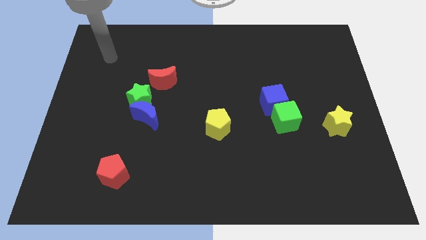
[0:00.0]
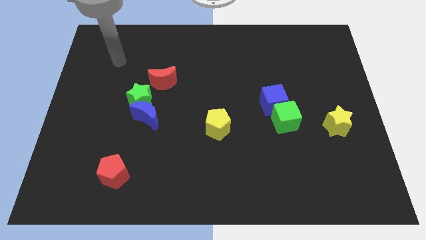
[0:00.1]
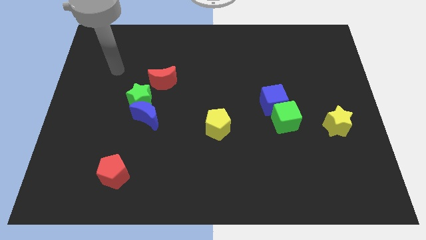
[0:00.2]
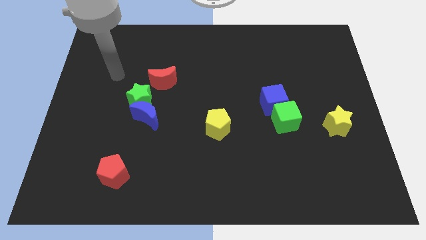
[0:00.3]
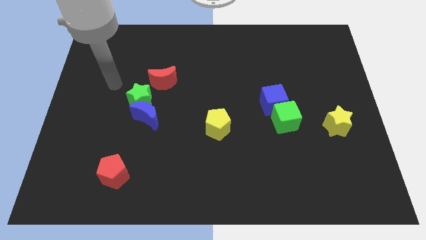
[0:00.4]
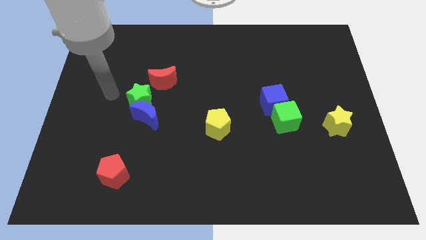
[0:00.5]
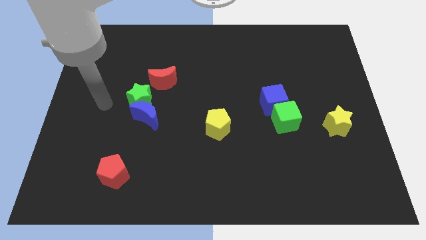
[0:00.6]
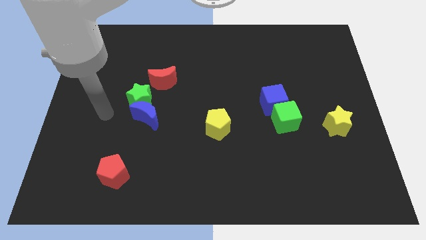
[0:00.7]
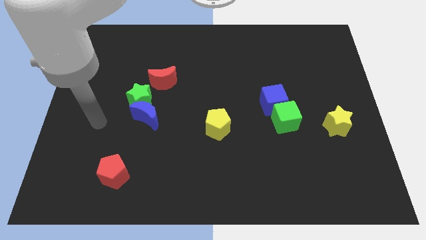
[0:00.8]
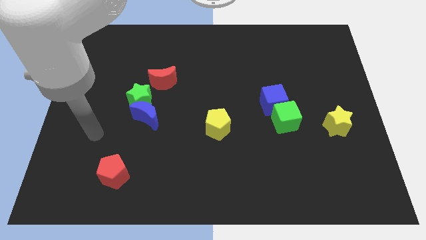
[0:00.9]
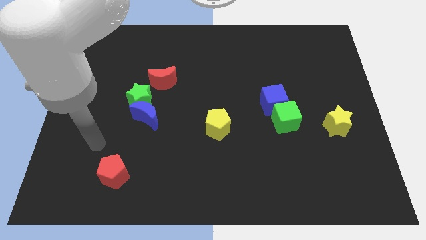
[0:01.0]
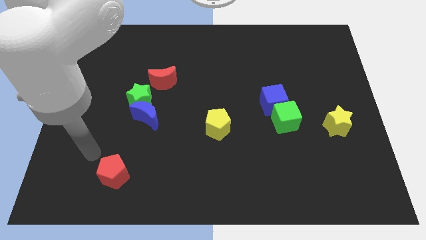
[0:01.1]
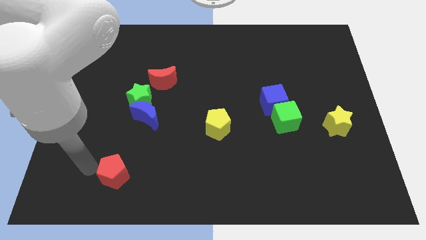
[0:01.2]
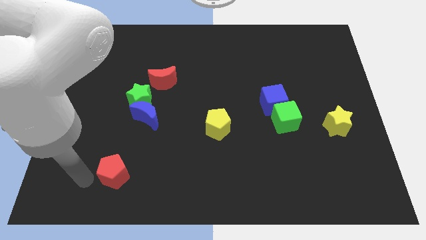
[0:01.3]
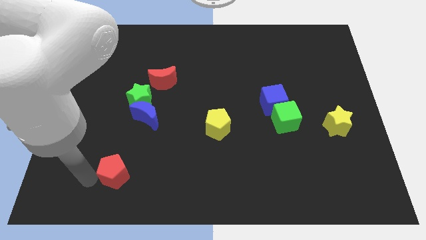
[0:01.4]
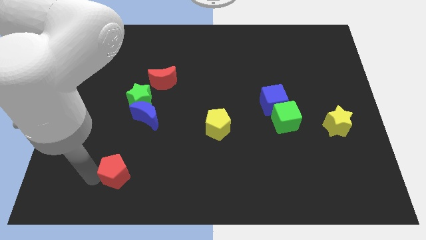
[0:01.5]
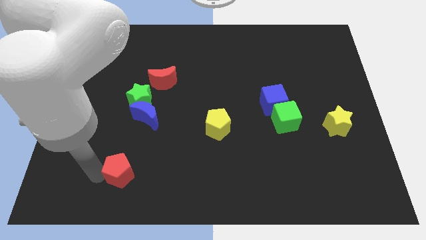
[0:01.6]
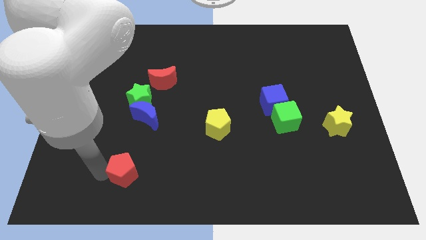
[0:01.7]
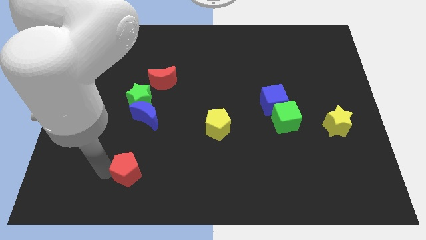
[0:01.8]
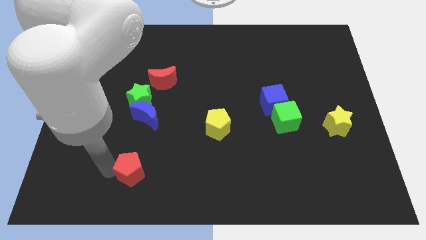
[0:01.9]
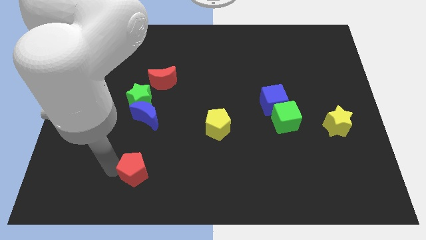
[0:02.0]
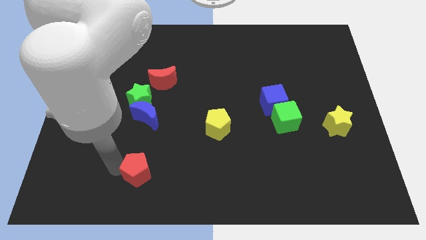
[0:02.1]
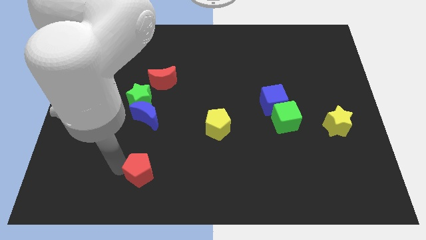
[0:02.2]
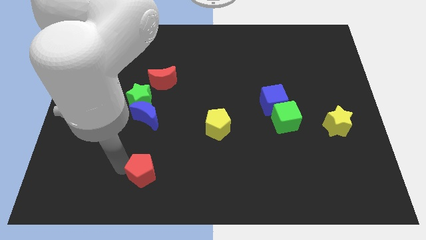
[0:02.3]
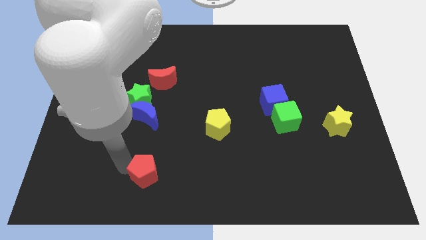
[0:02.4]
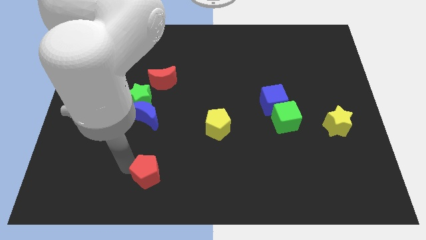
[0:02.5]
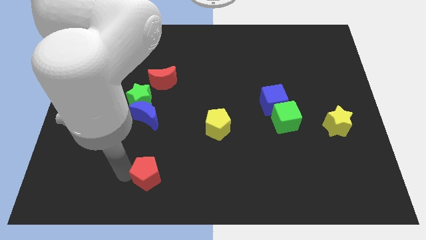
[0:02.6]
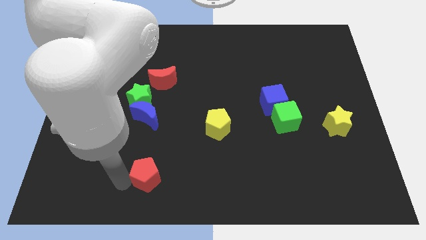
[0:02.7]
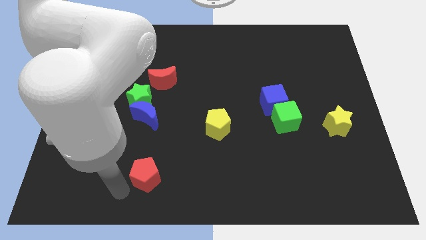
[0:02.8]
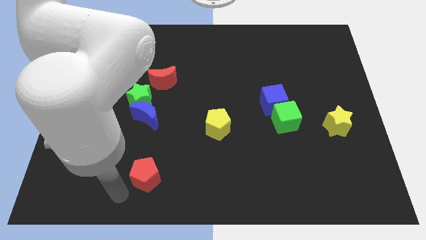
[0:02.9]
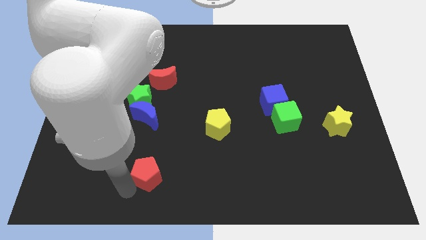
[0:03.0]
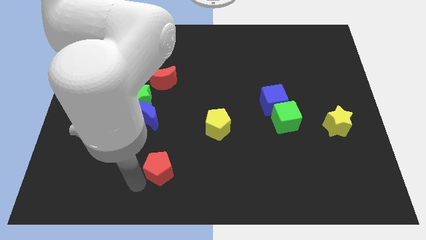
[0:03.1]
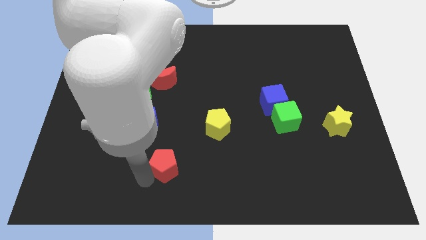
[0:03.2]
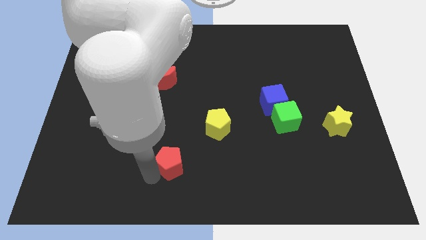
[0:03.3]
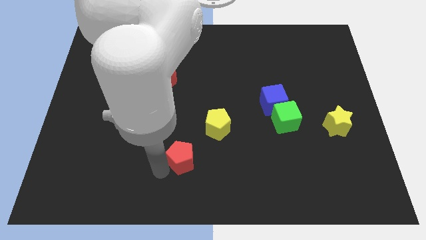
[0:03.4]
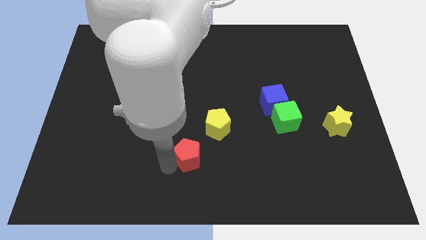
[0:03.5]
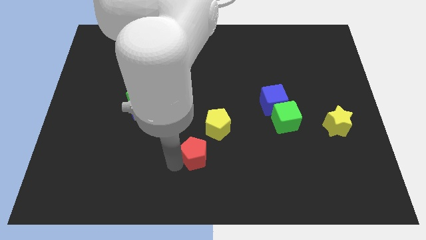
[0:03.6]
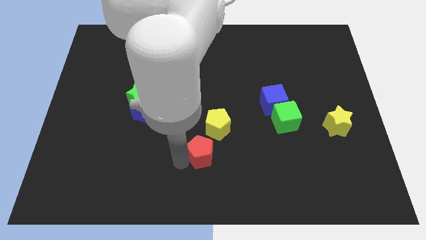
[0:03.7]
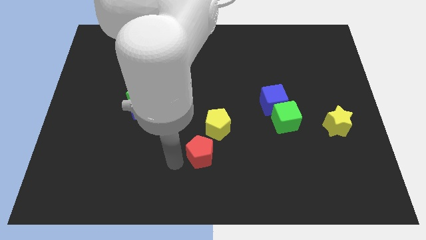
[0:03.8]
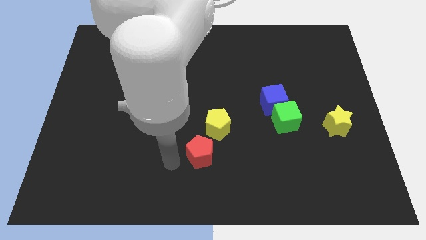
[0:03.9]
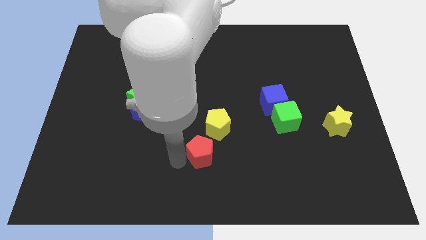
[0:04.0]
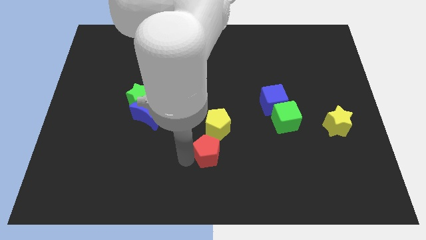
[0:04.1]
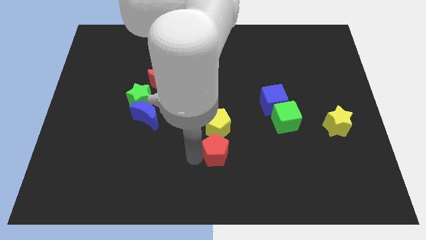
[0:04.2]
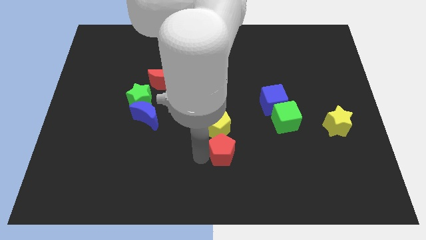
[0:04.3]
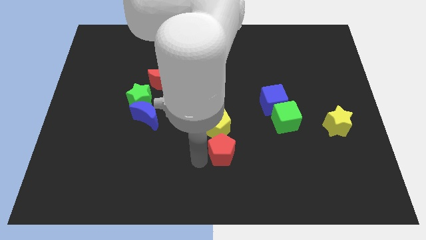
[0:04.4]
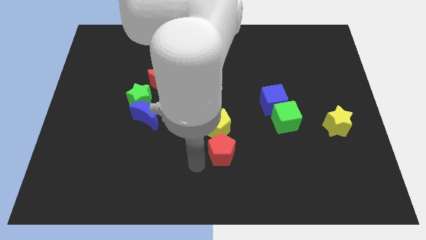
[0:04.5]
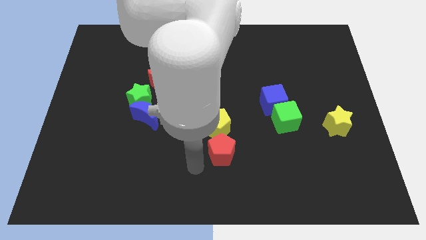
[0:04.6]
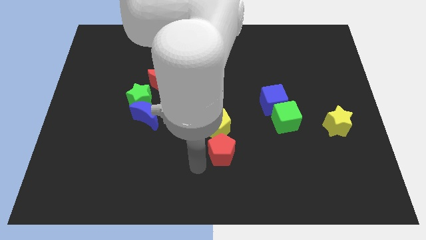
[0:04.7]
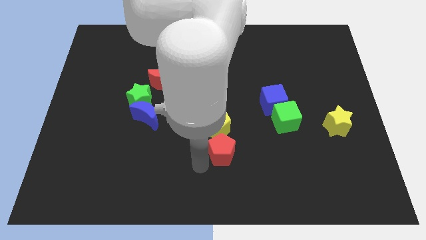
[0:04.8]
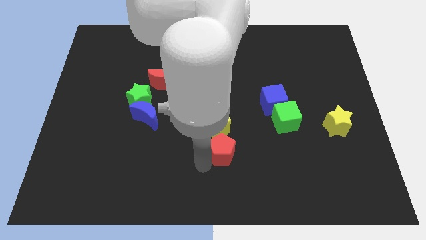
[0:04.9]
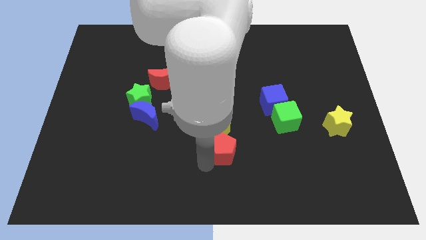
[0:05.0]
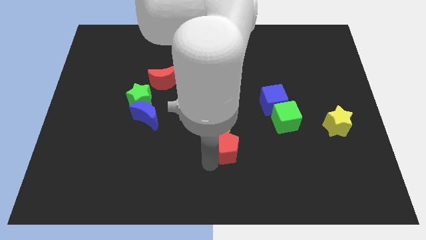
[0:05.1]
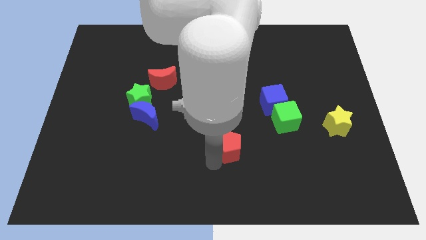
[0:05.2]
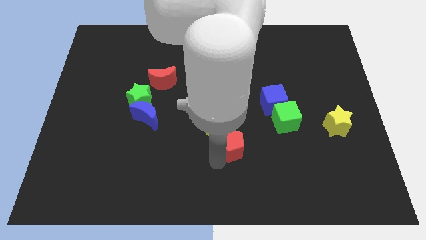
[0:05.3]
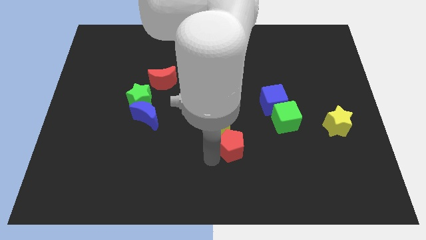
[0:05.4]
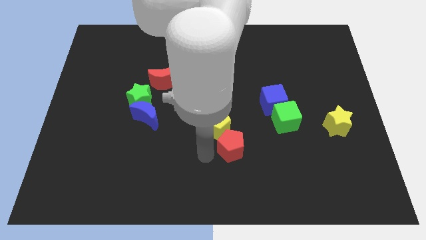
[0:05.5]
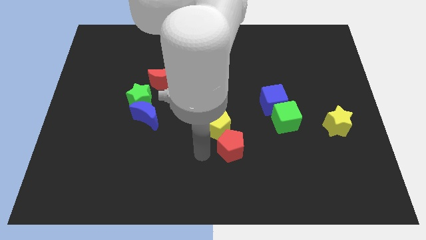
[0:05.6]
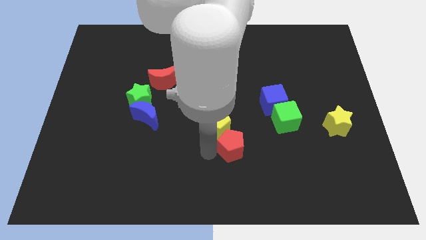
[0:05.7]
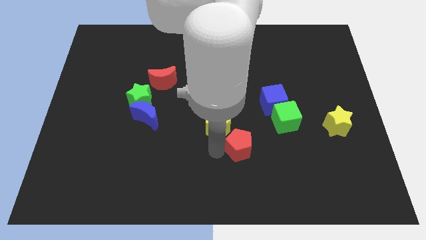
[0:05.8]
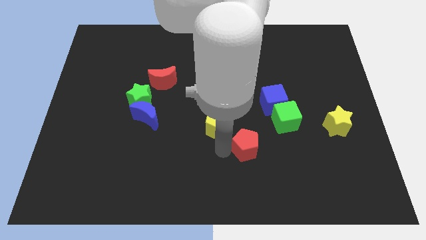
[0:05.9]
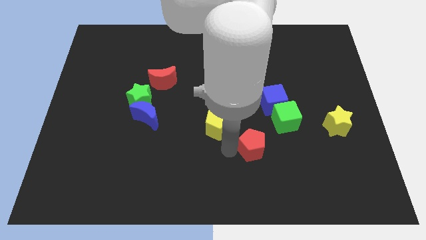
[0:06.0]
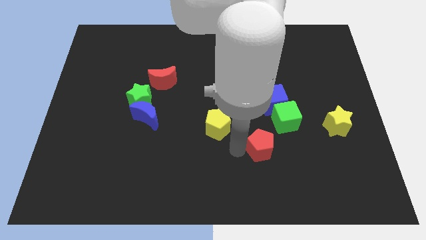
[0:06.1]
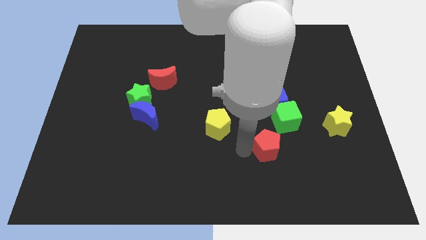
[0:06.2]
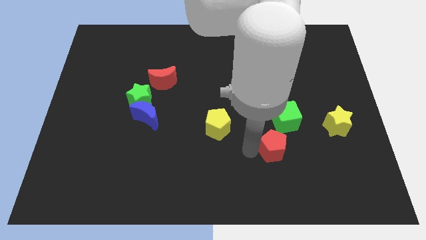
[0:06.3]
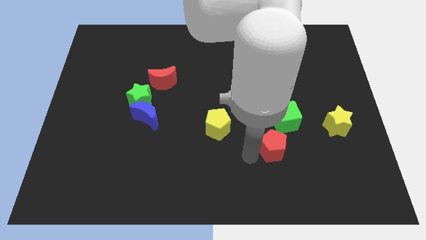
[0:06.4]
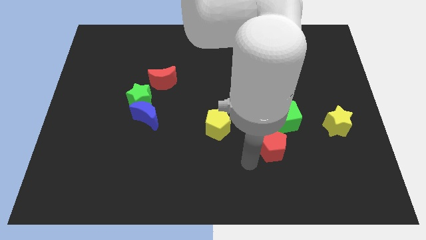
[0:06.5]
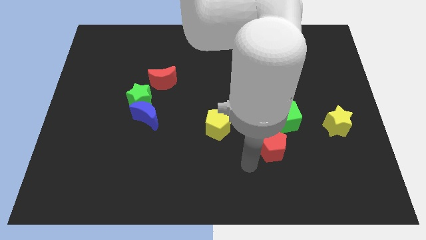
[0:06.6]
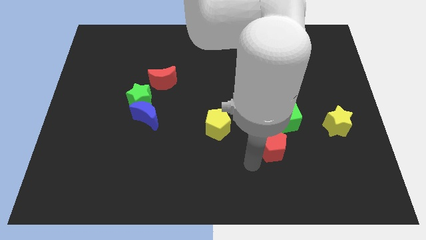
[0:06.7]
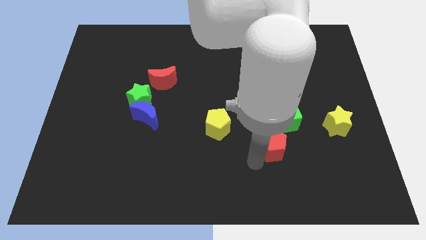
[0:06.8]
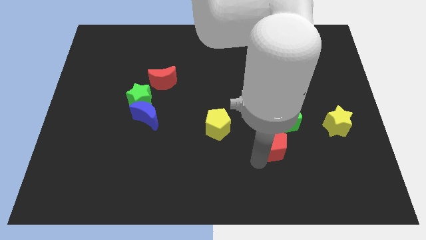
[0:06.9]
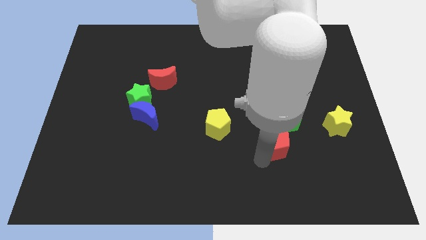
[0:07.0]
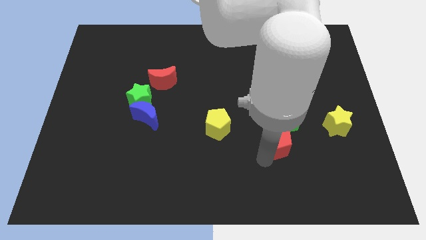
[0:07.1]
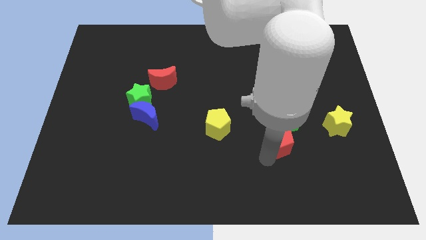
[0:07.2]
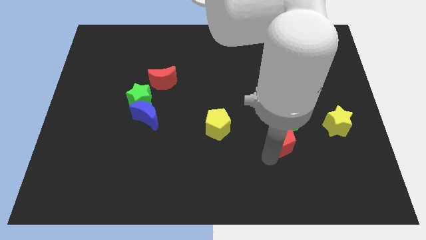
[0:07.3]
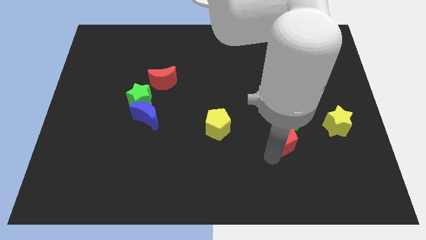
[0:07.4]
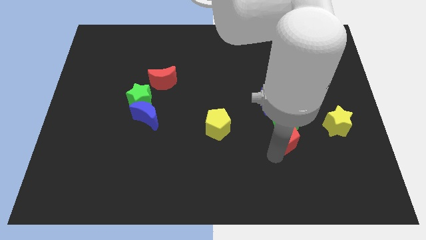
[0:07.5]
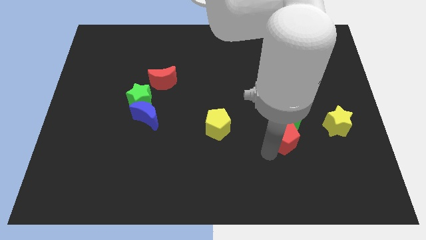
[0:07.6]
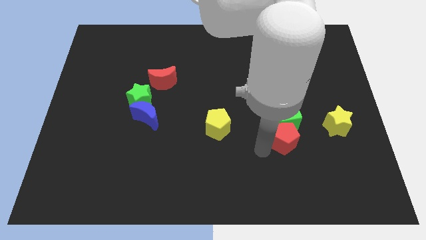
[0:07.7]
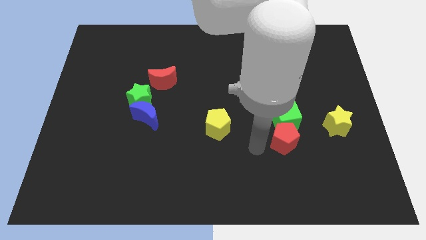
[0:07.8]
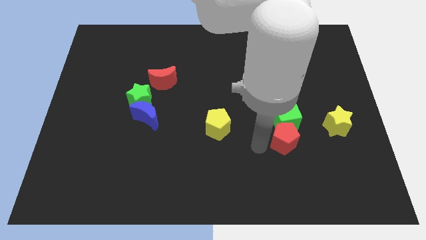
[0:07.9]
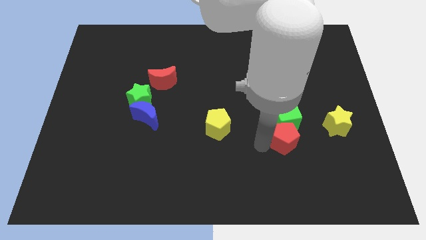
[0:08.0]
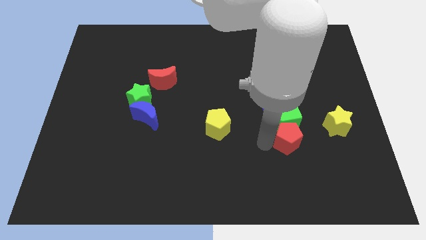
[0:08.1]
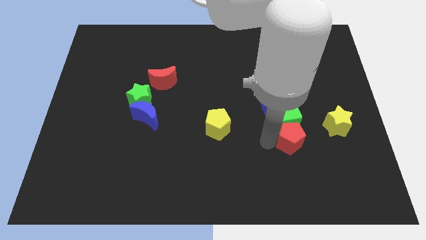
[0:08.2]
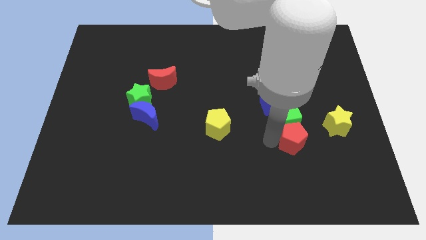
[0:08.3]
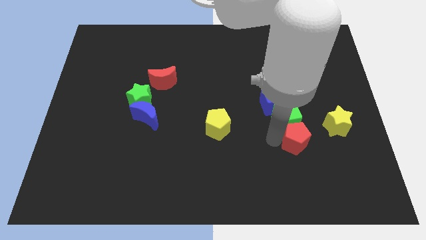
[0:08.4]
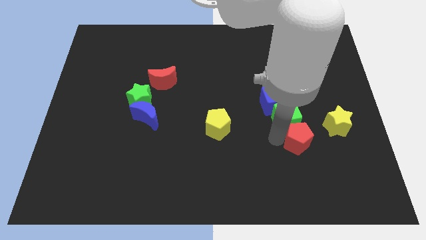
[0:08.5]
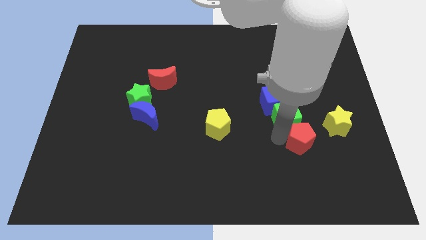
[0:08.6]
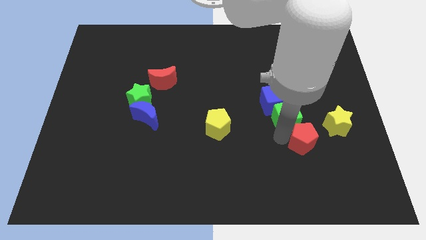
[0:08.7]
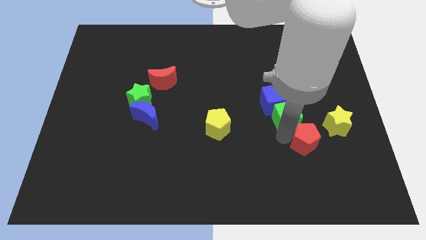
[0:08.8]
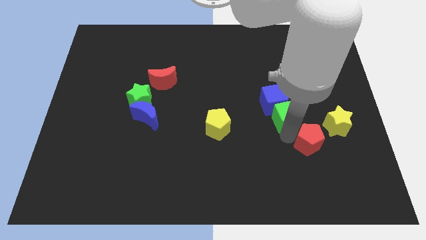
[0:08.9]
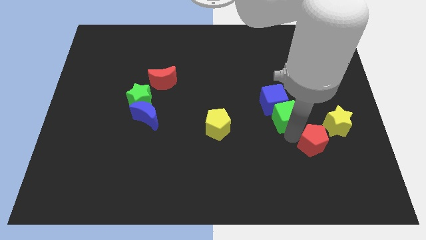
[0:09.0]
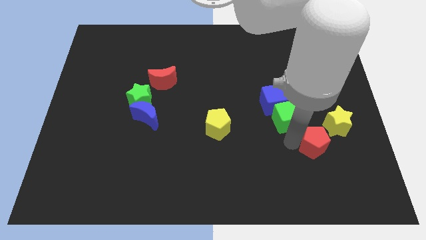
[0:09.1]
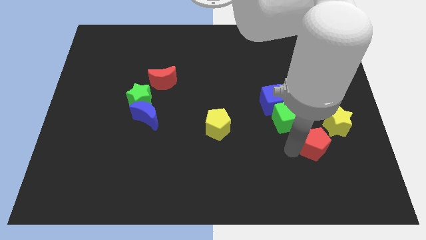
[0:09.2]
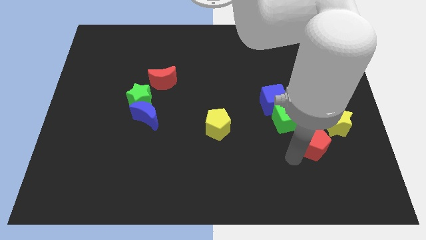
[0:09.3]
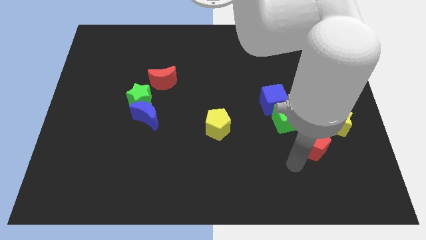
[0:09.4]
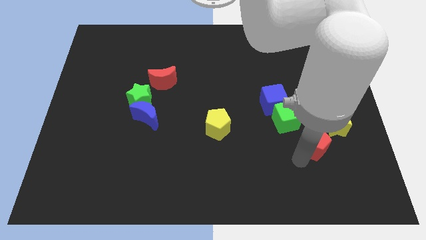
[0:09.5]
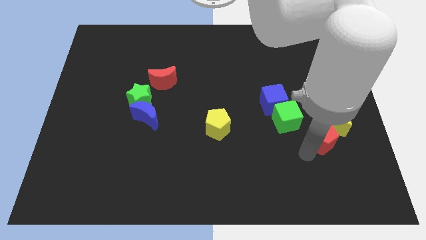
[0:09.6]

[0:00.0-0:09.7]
slide the red pentagon towards the yellow star
